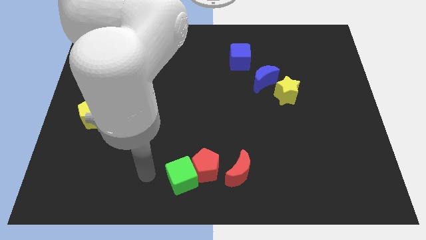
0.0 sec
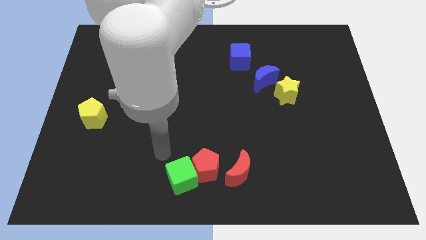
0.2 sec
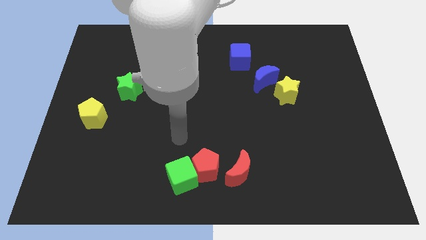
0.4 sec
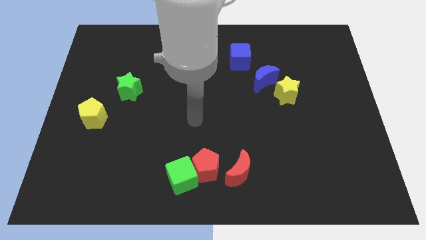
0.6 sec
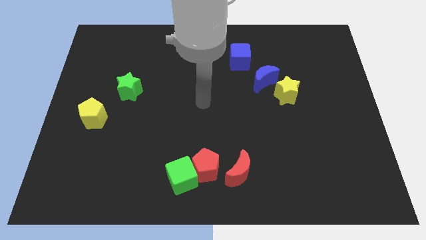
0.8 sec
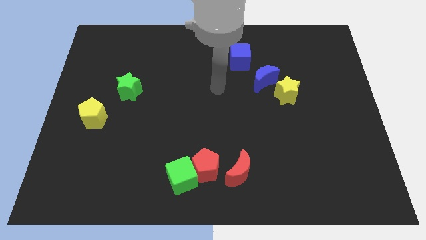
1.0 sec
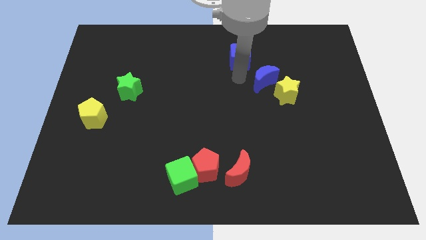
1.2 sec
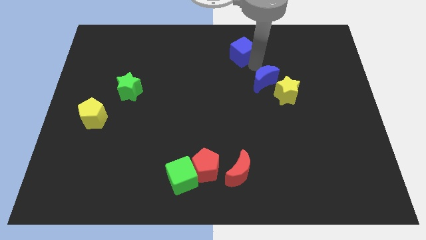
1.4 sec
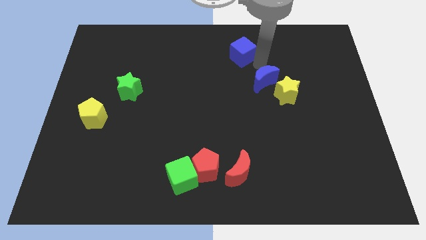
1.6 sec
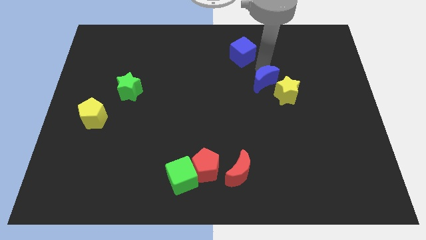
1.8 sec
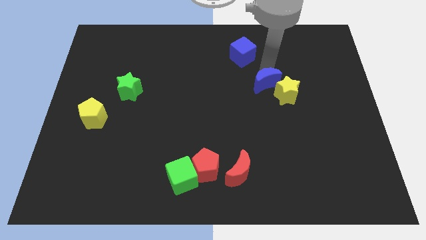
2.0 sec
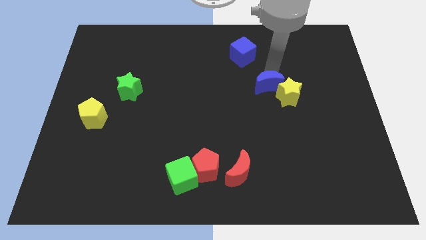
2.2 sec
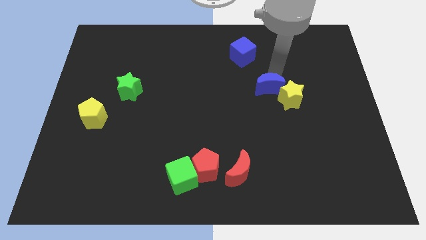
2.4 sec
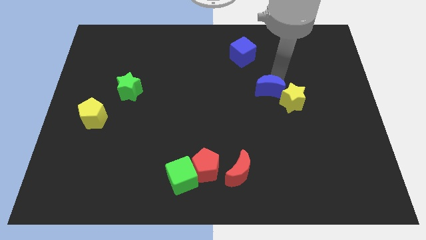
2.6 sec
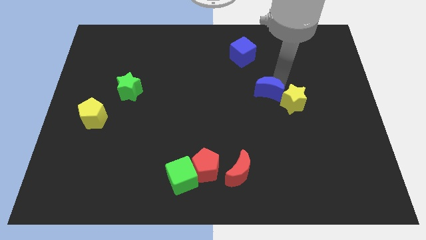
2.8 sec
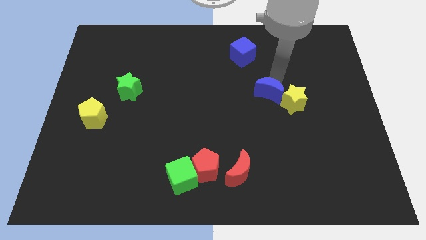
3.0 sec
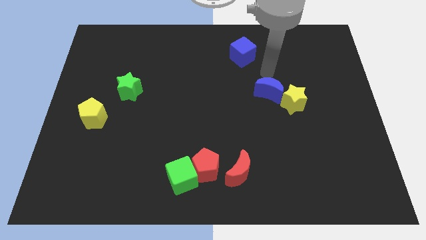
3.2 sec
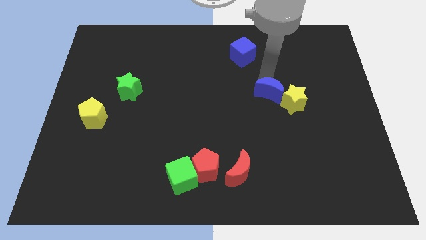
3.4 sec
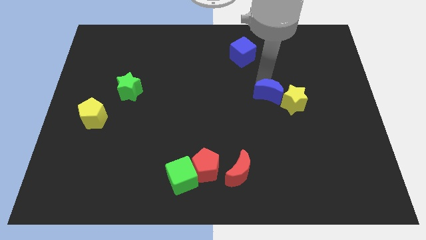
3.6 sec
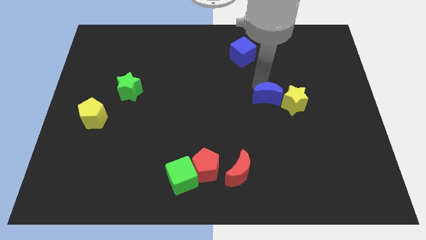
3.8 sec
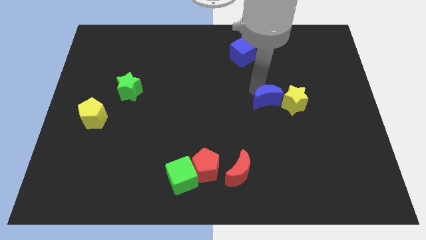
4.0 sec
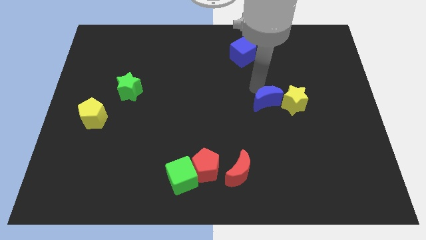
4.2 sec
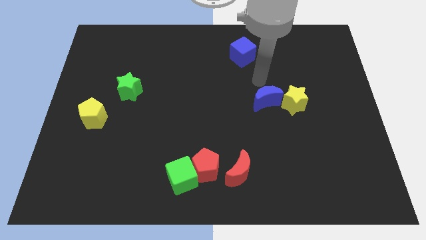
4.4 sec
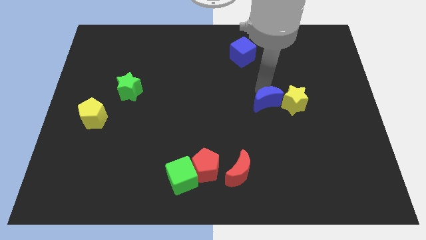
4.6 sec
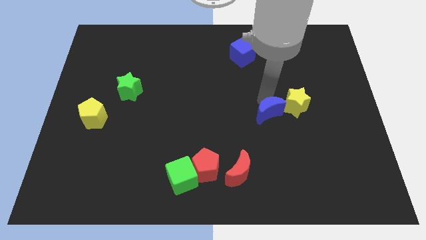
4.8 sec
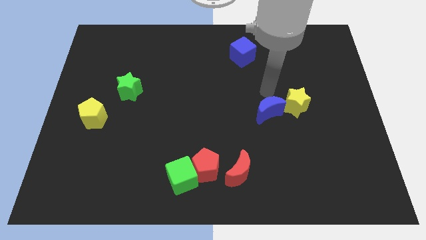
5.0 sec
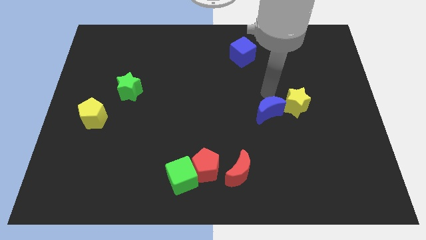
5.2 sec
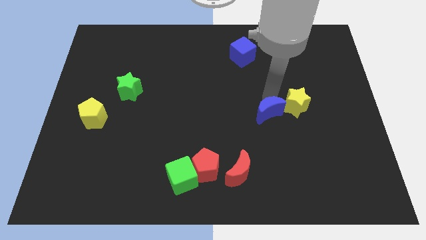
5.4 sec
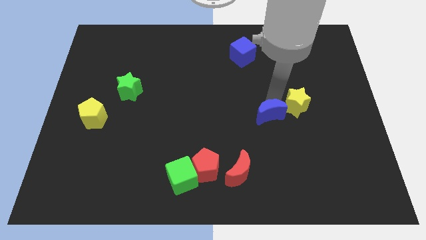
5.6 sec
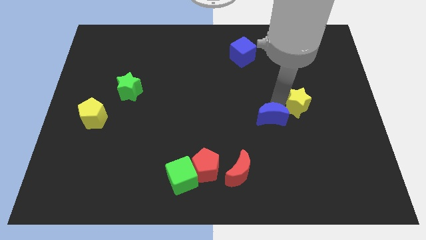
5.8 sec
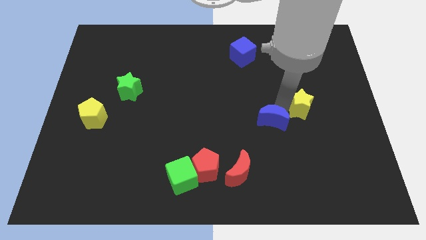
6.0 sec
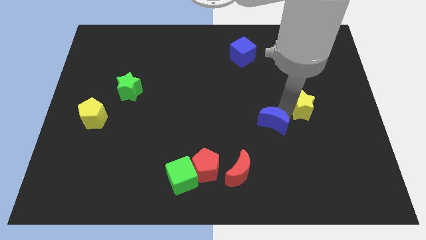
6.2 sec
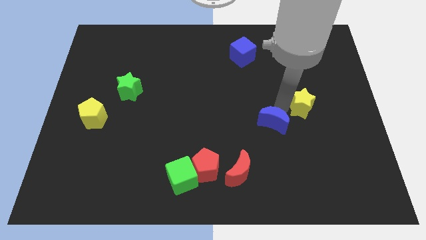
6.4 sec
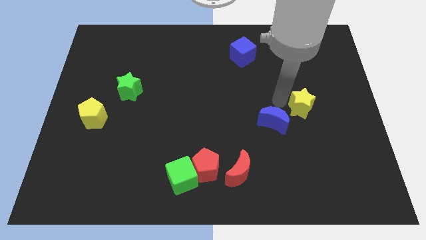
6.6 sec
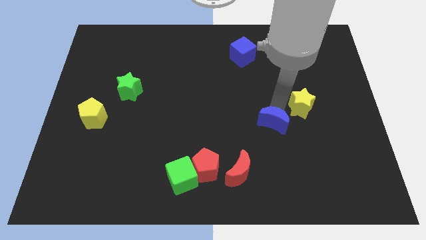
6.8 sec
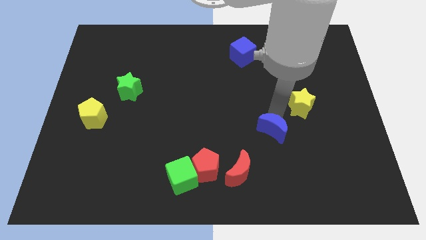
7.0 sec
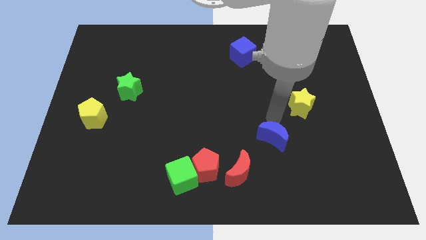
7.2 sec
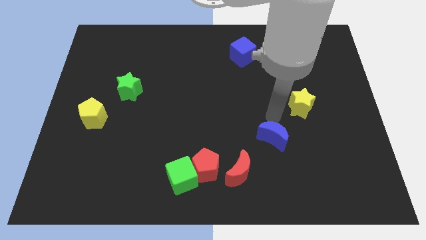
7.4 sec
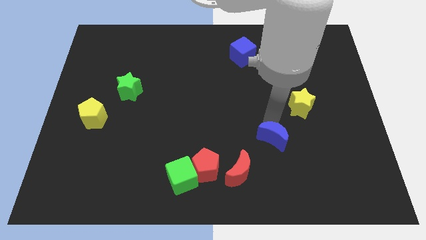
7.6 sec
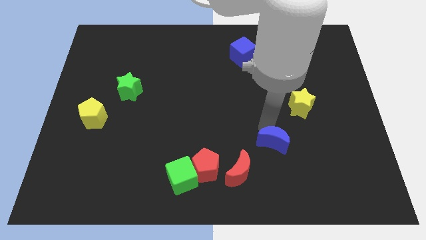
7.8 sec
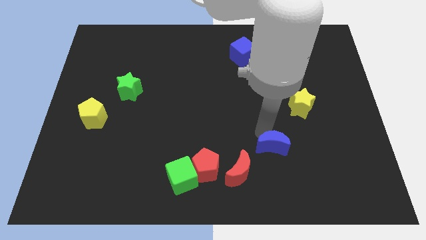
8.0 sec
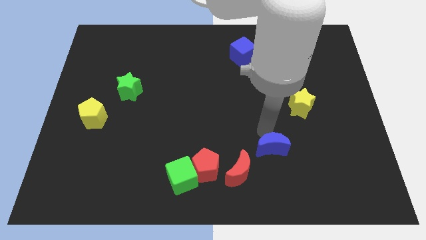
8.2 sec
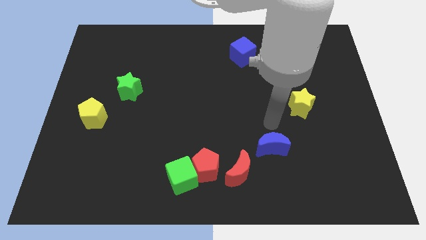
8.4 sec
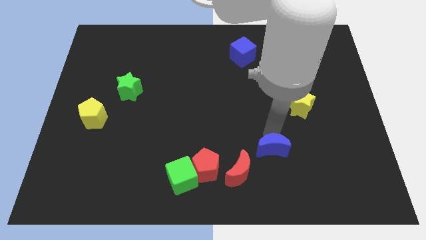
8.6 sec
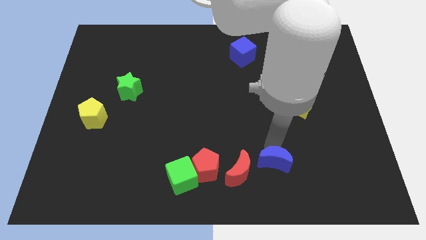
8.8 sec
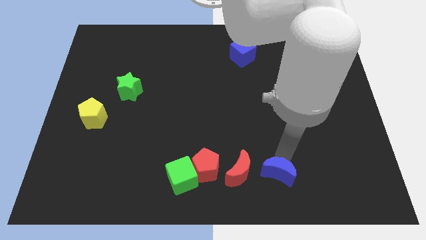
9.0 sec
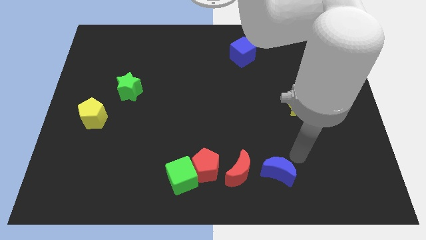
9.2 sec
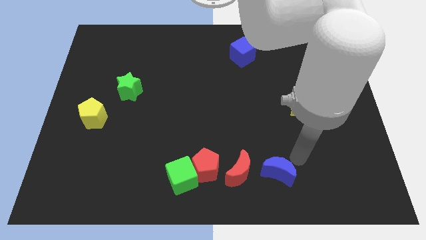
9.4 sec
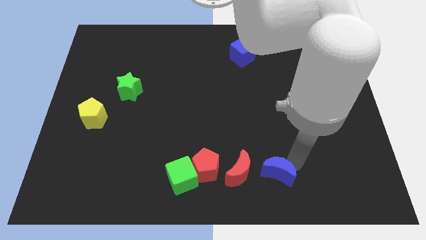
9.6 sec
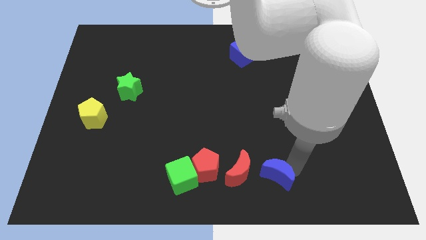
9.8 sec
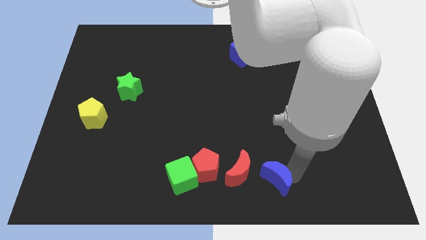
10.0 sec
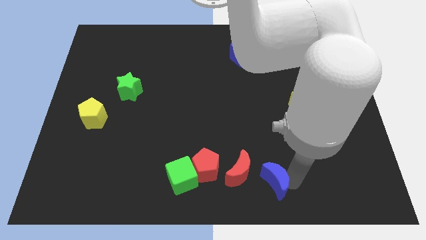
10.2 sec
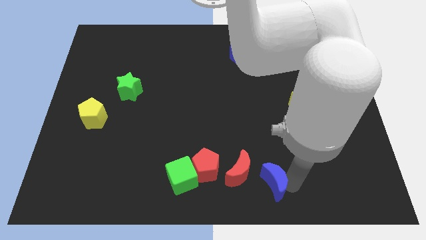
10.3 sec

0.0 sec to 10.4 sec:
move the blue moon to the bottom side
